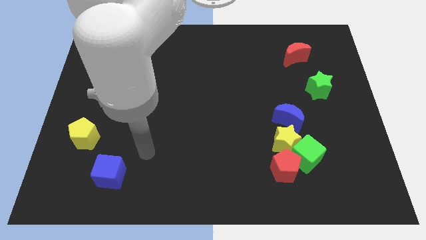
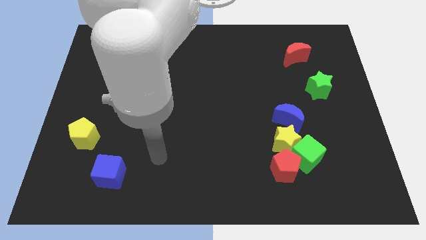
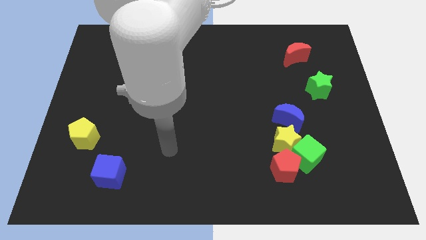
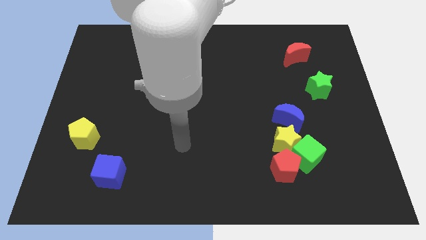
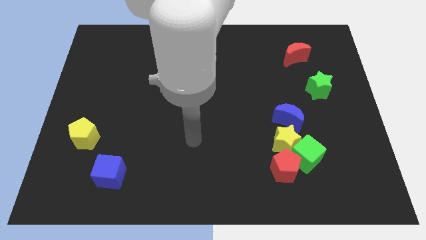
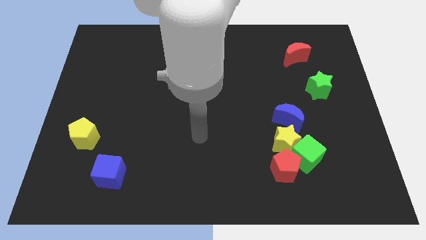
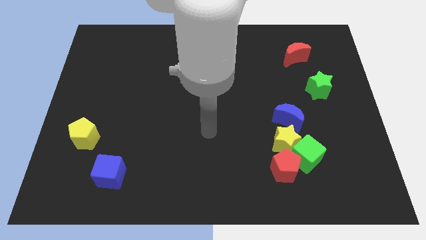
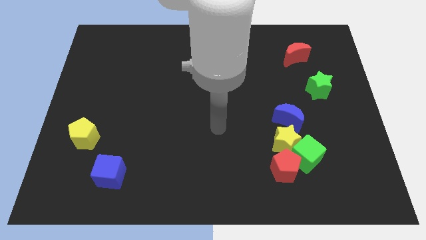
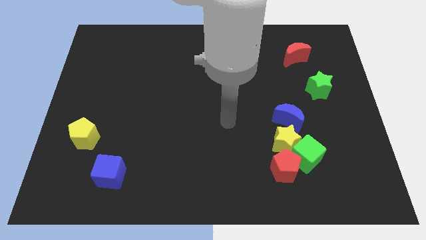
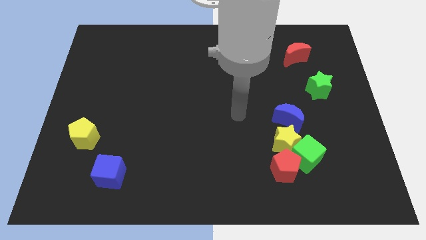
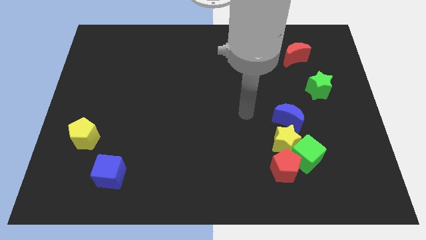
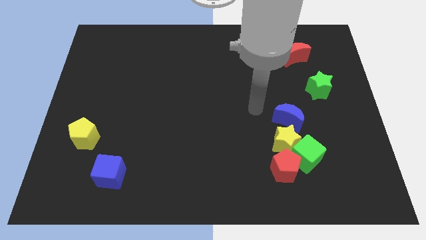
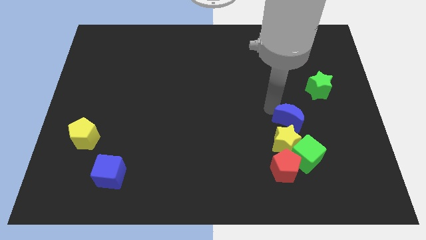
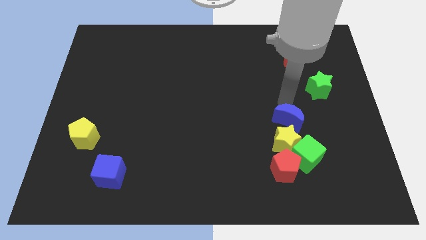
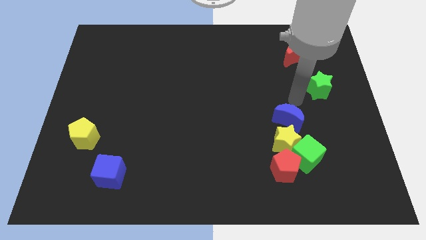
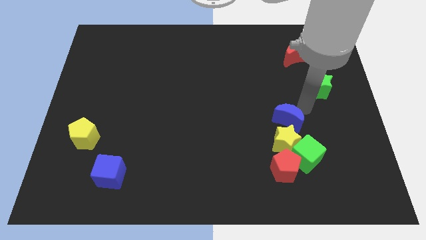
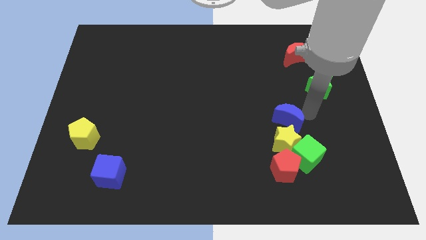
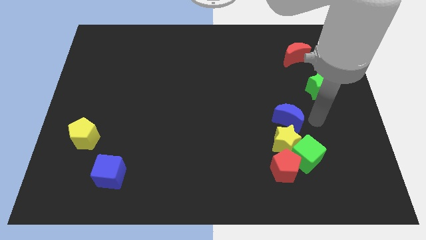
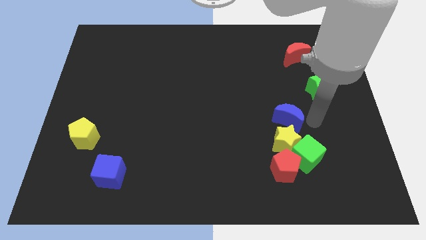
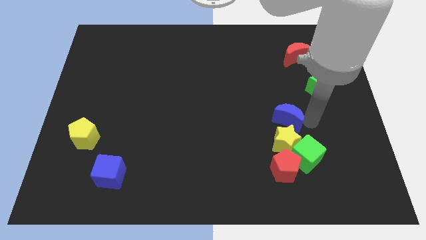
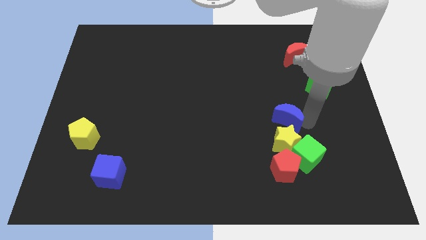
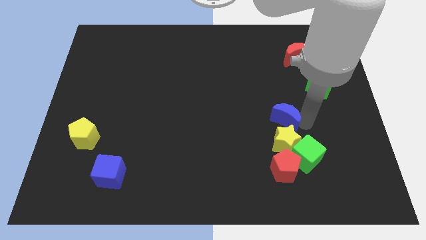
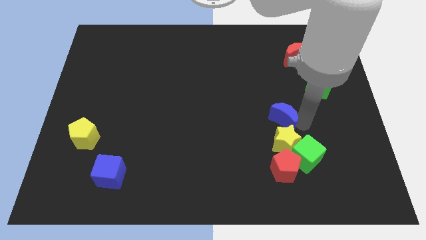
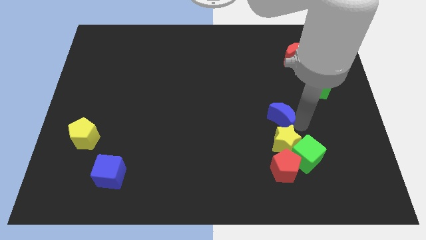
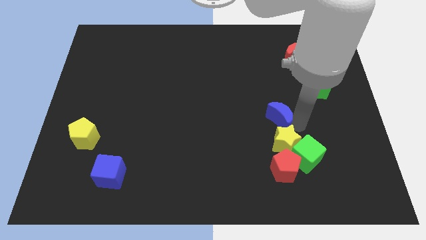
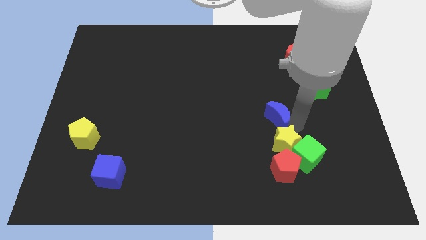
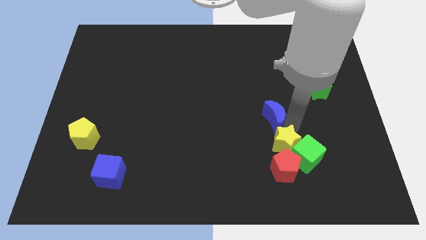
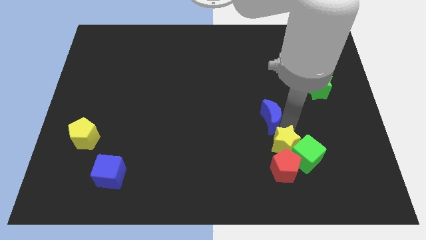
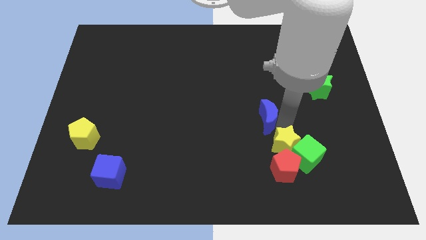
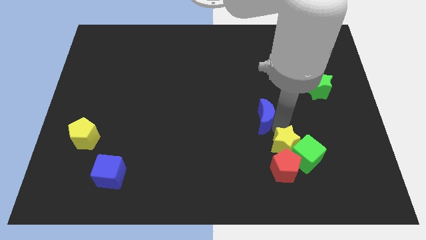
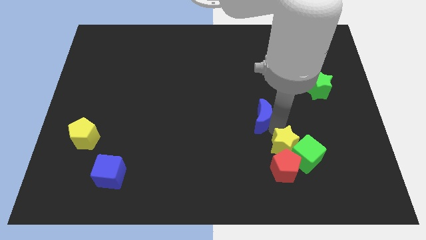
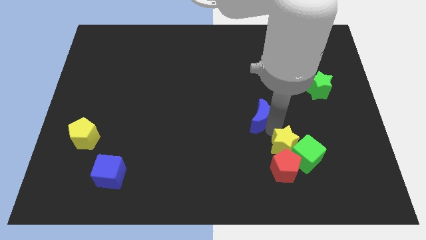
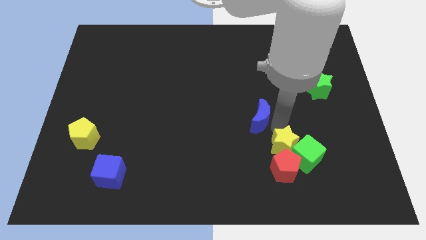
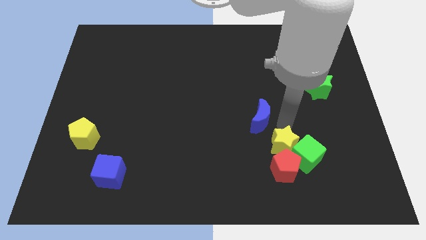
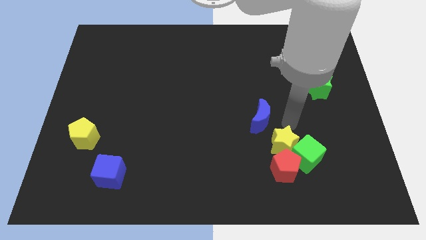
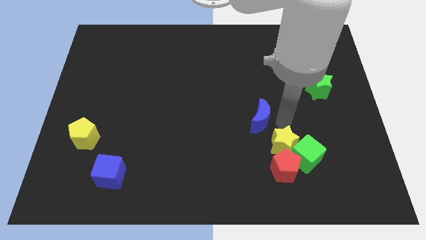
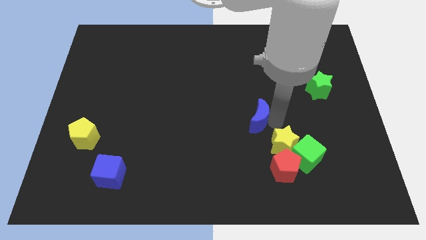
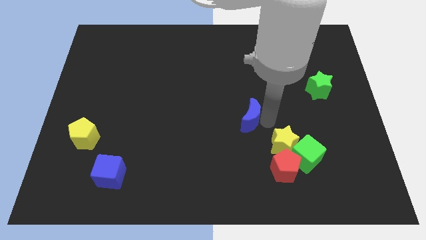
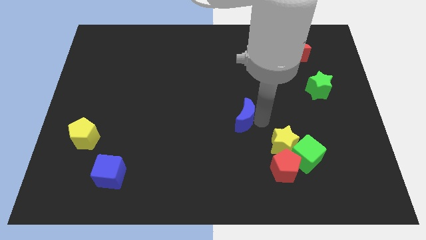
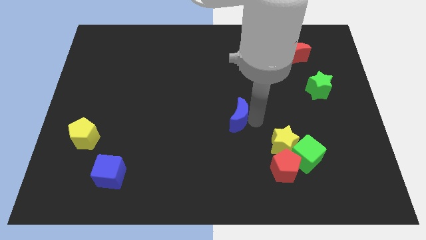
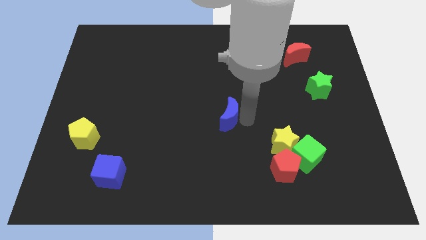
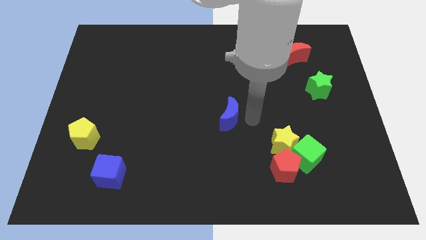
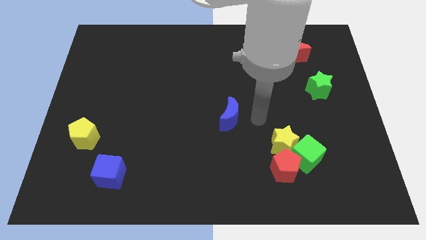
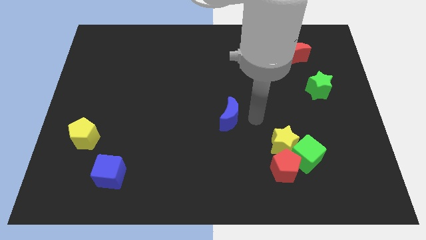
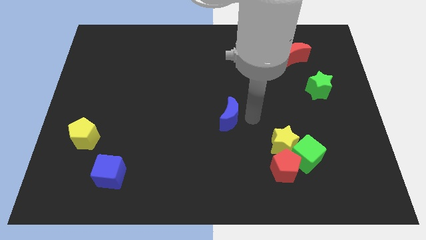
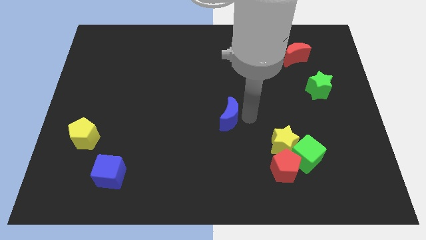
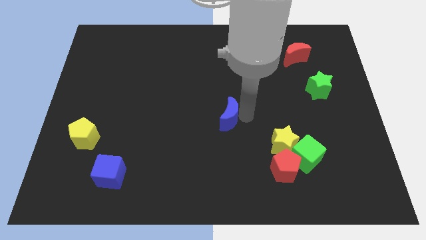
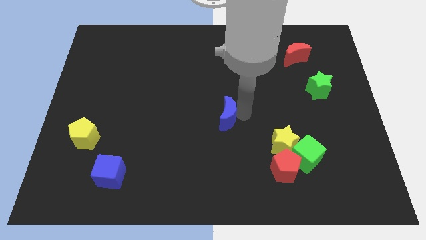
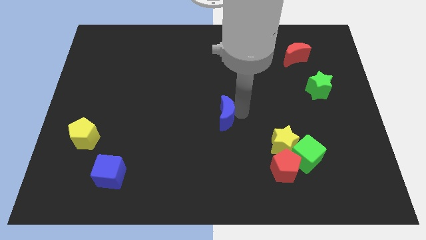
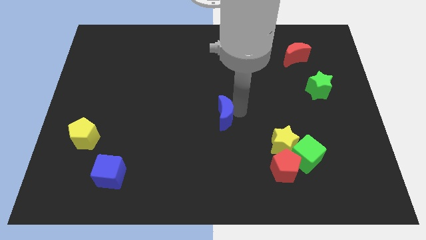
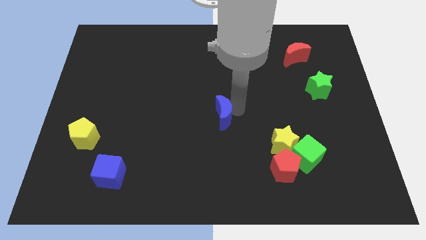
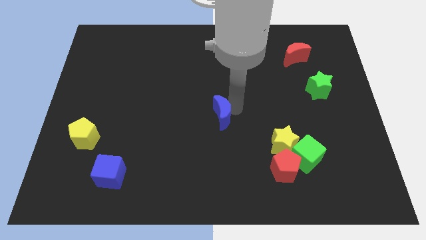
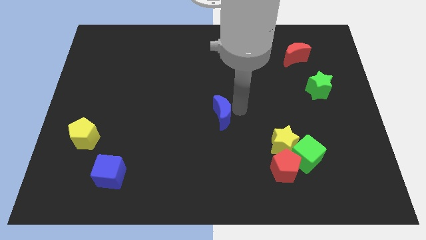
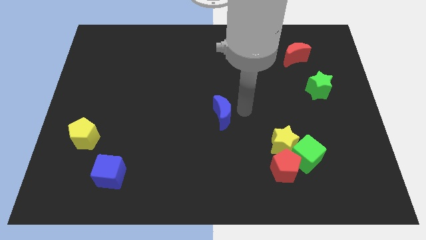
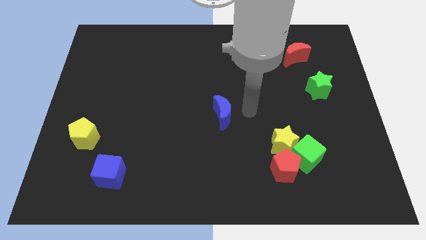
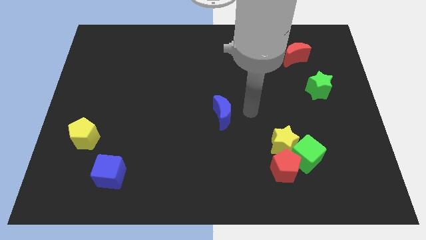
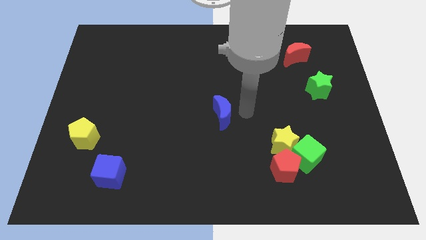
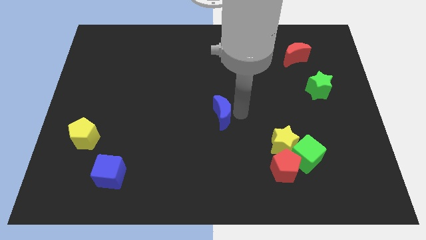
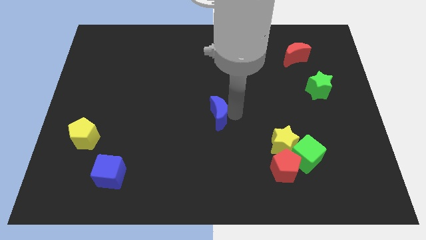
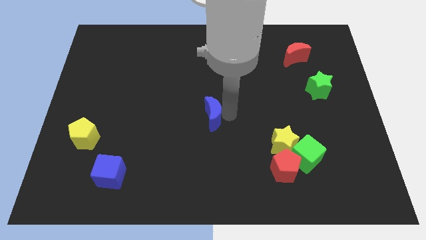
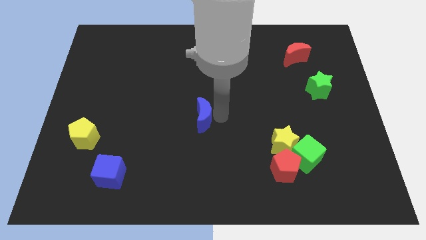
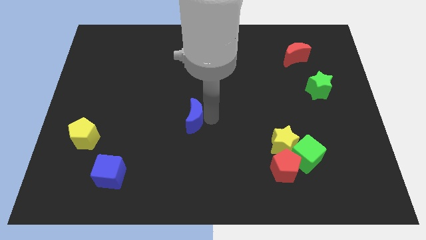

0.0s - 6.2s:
move the blue moon to the left

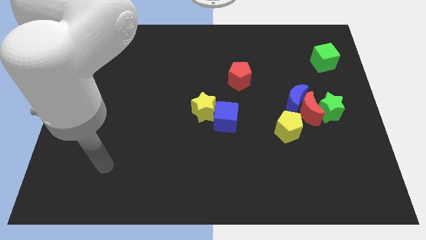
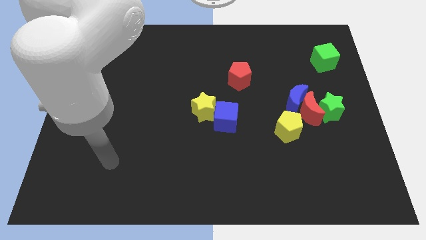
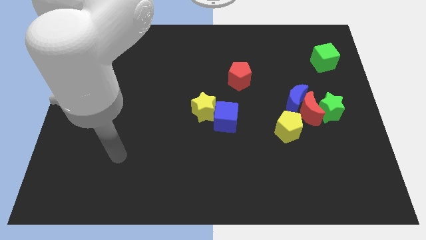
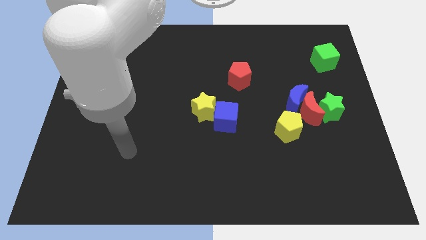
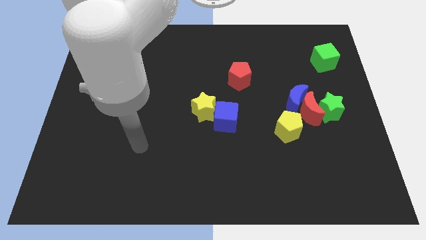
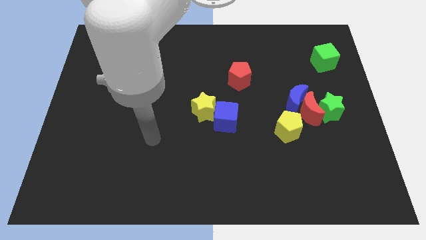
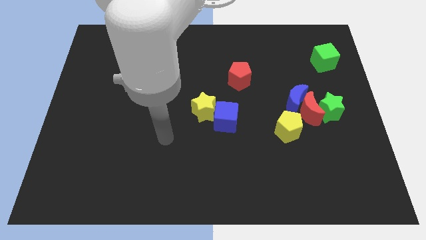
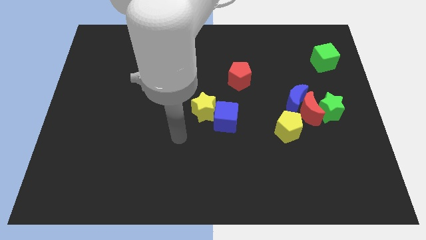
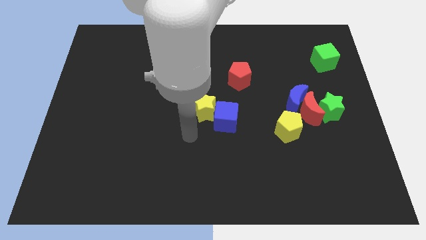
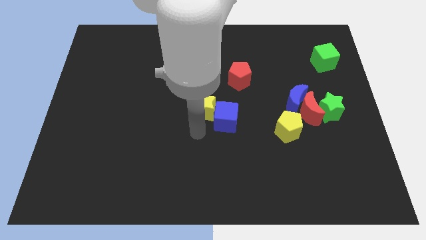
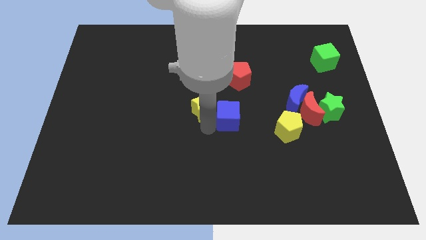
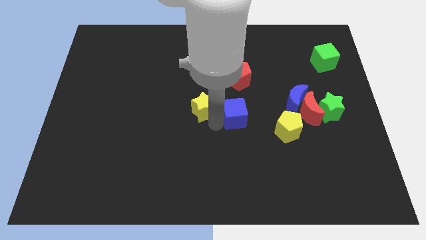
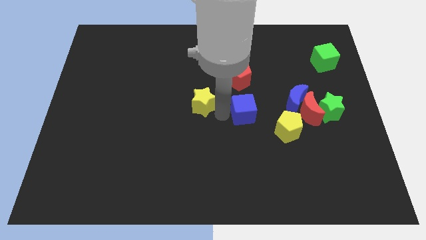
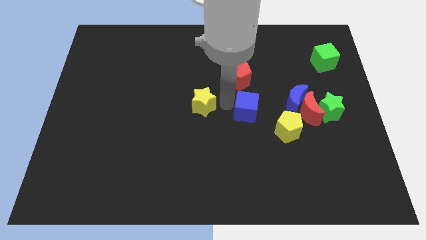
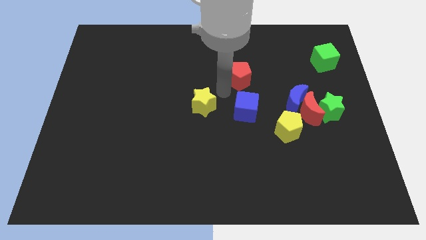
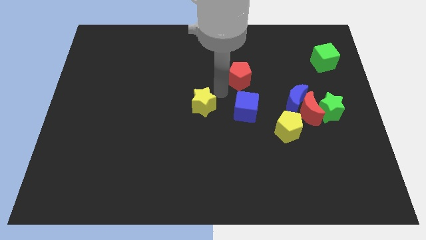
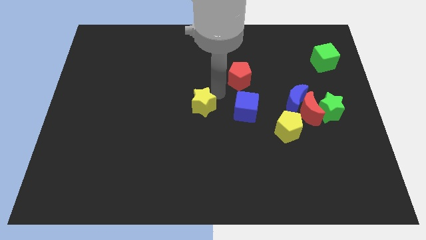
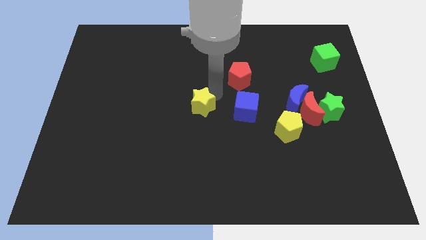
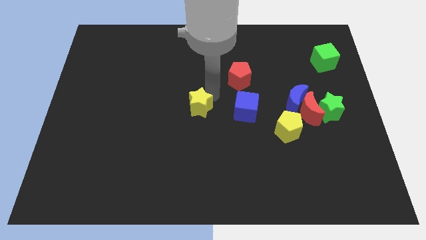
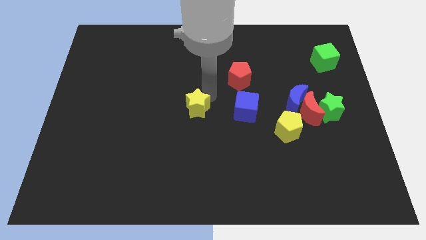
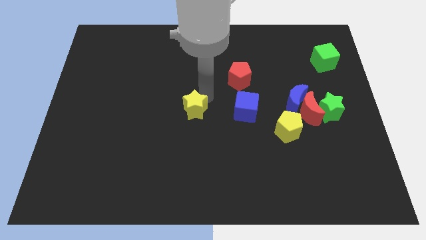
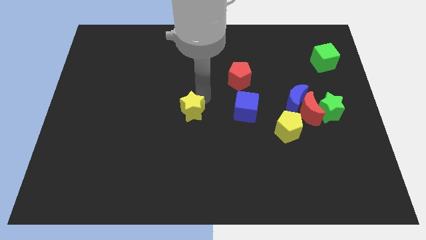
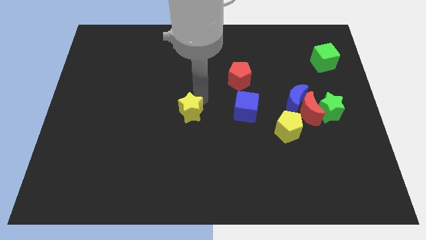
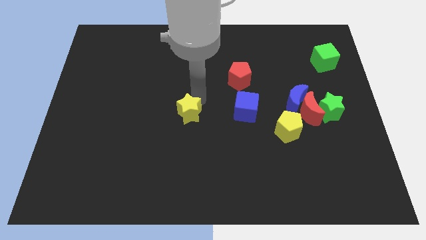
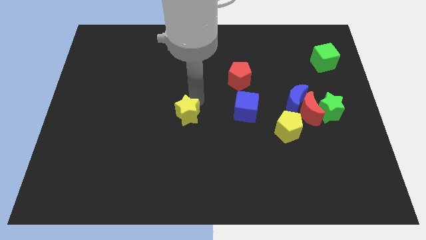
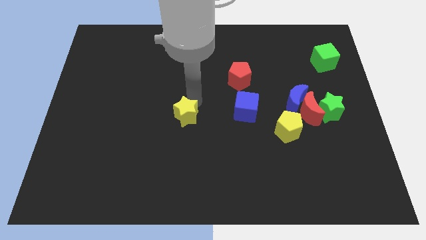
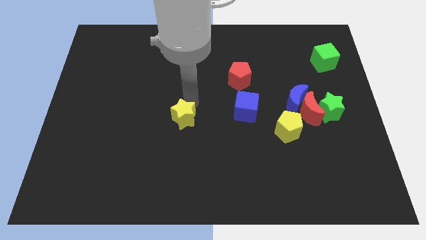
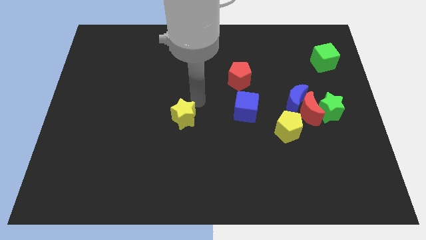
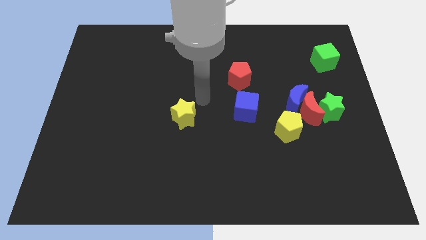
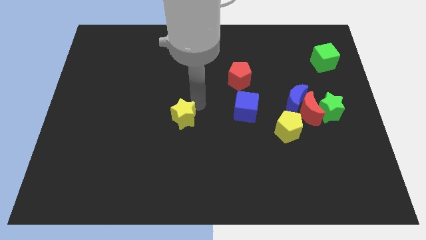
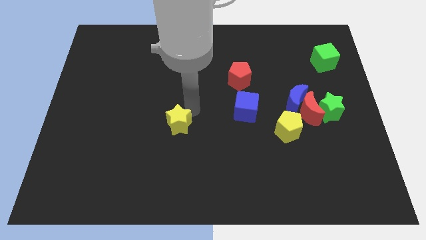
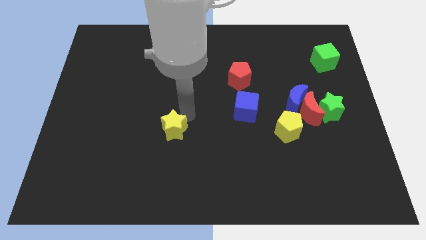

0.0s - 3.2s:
move the yellow star downwards and then left a little
